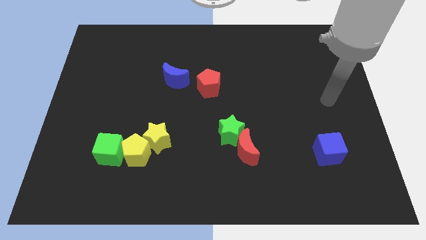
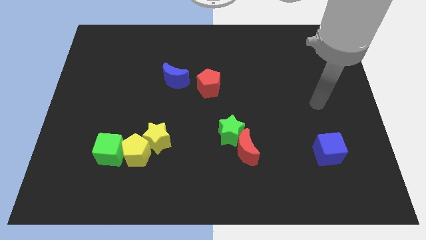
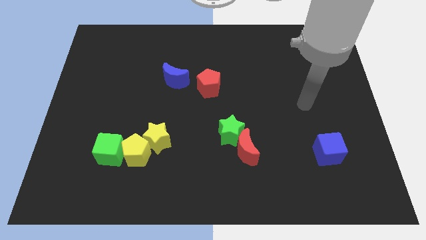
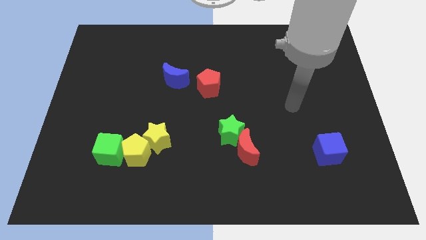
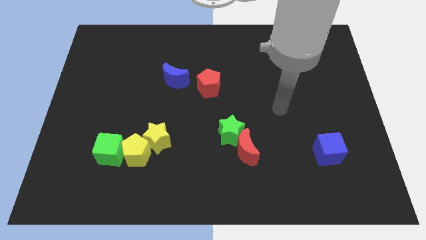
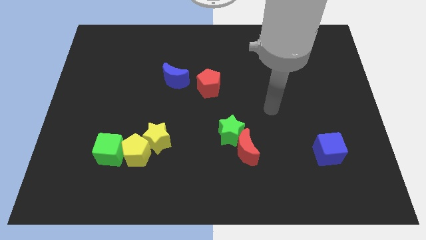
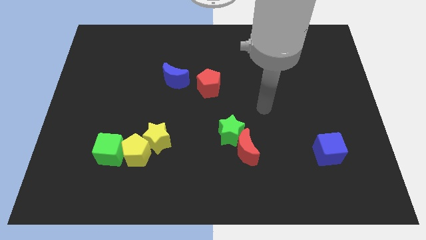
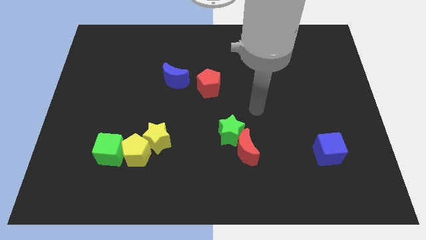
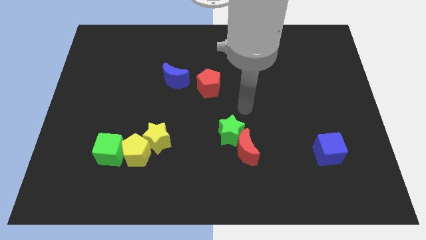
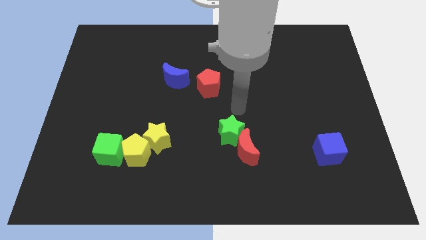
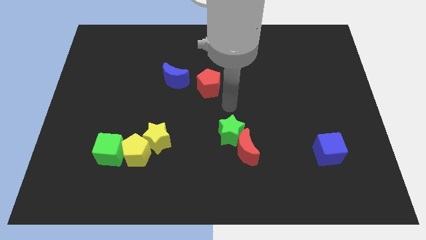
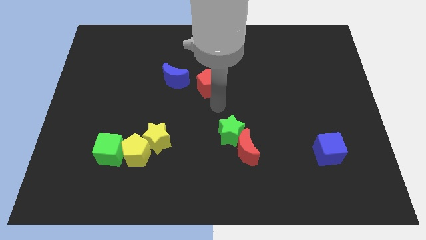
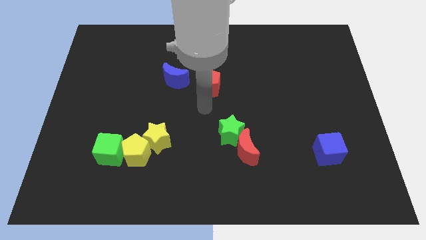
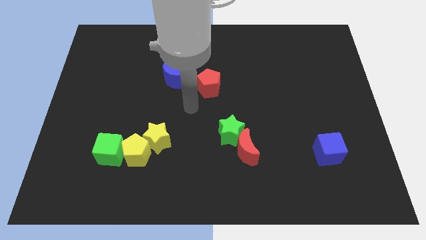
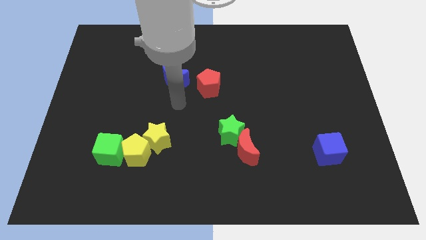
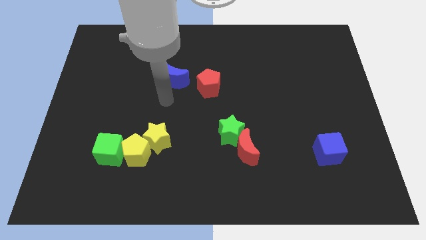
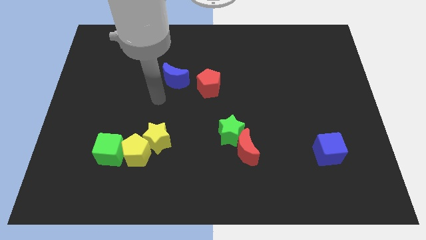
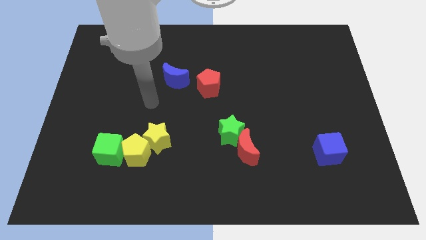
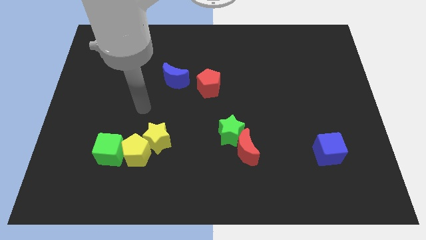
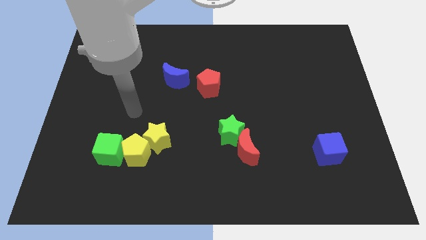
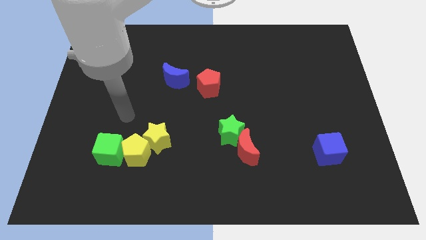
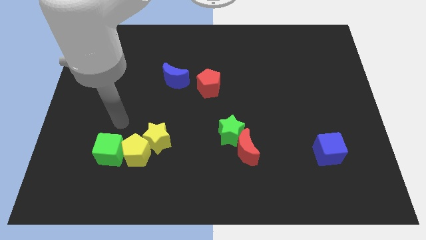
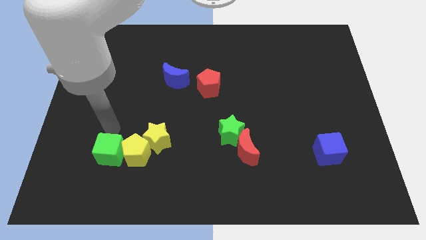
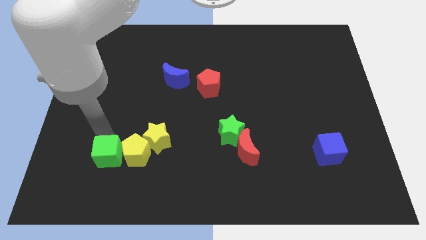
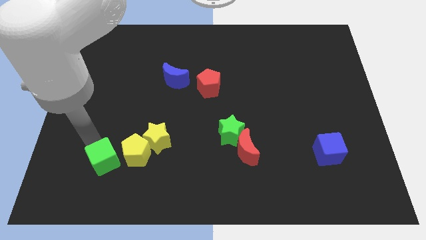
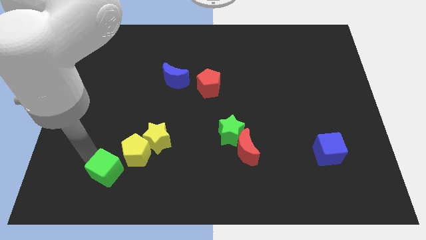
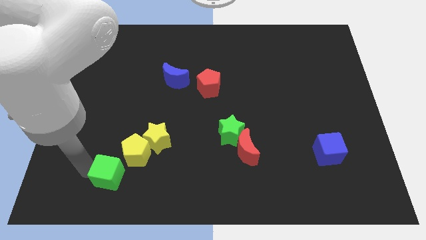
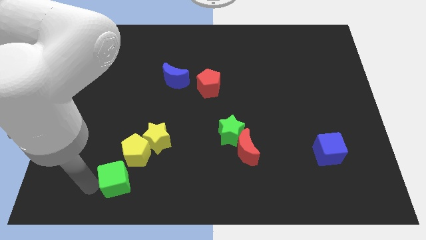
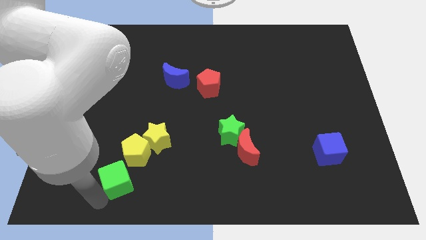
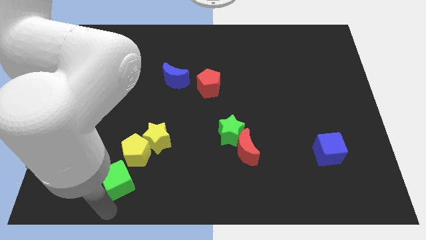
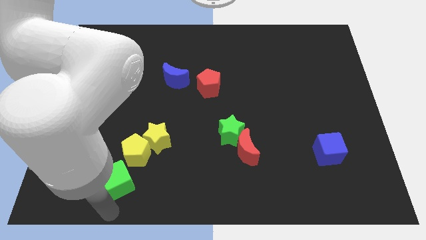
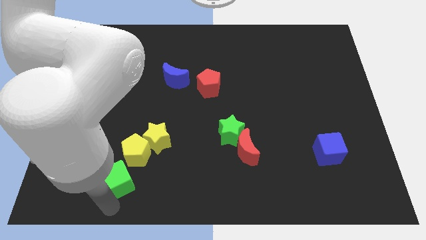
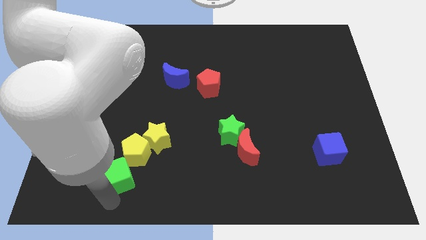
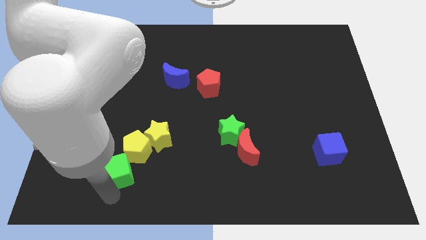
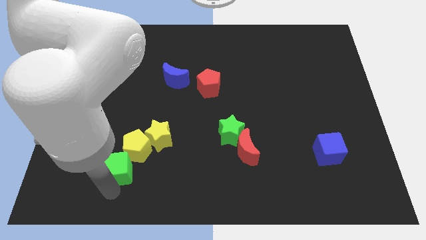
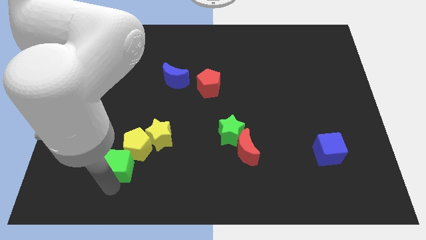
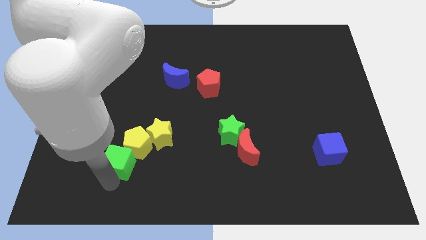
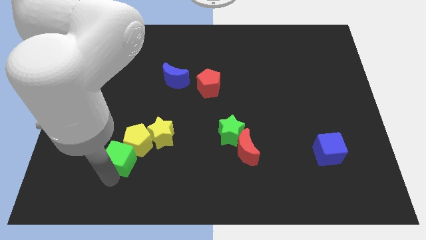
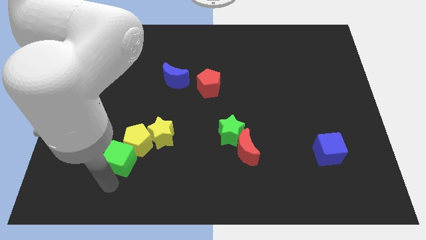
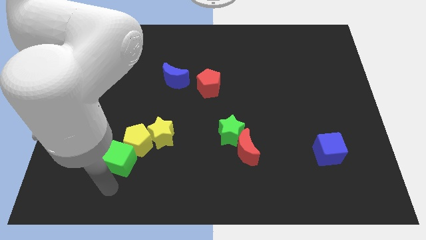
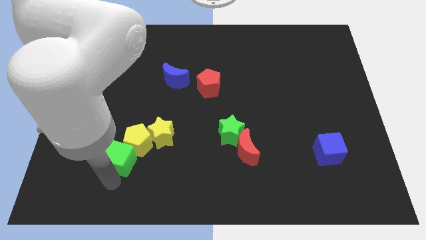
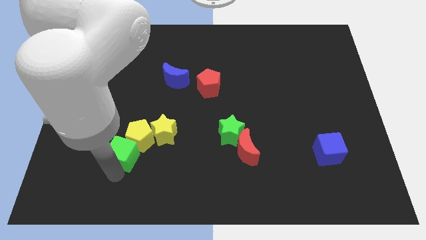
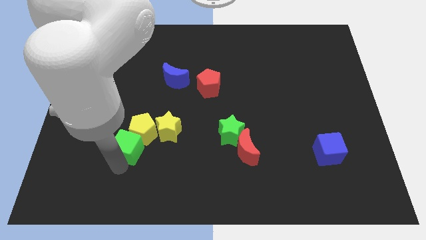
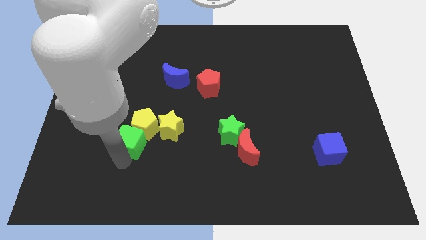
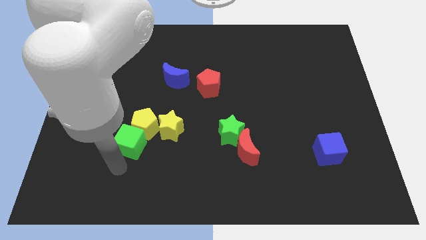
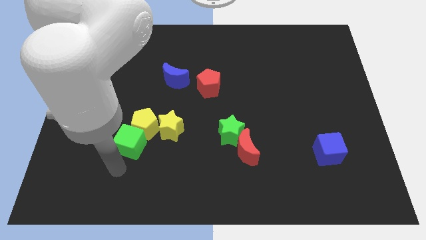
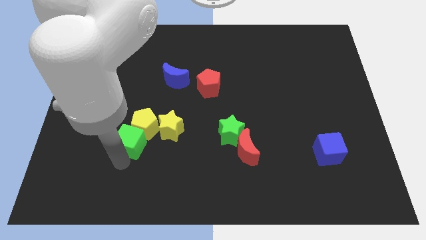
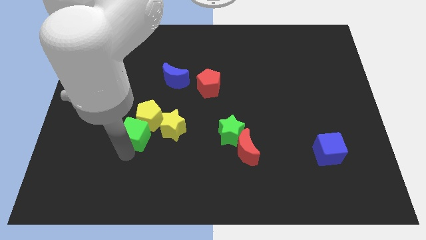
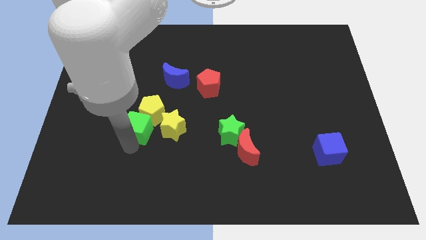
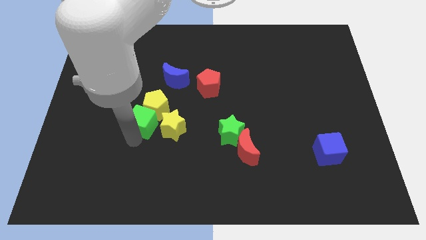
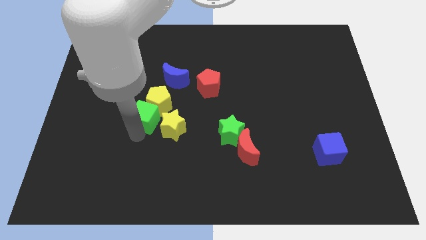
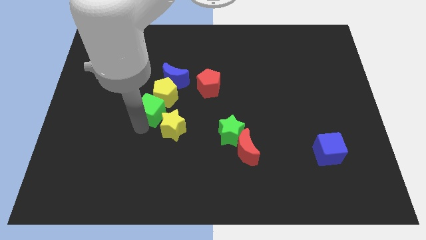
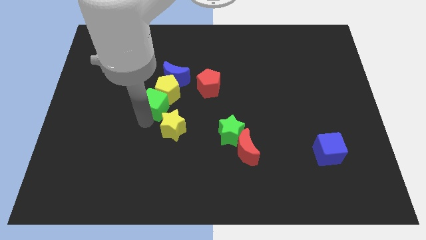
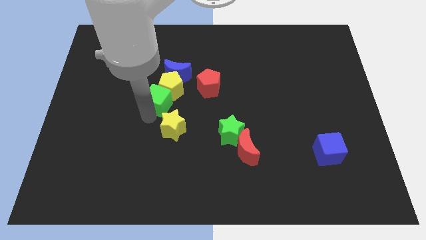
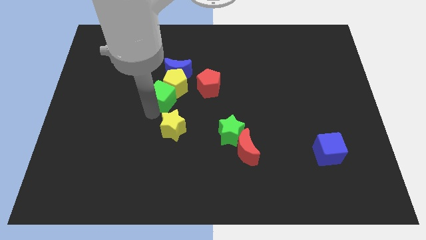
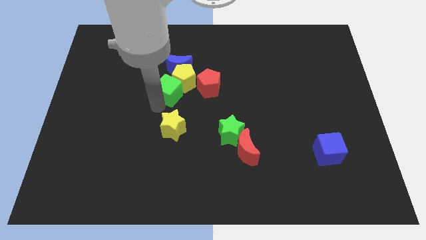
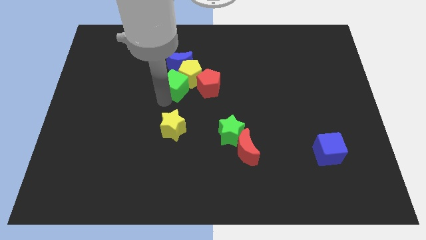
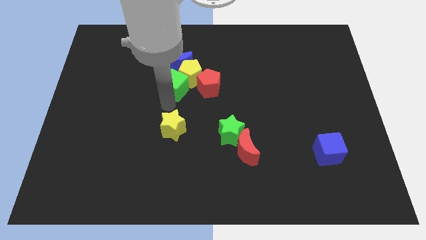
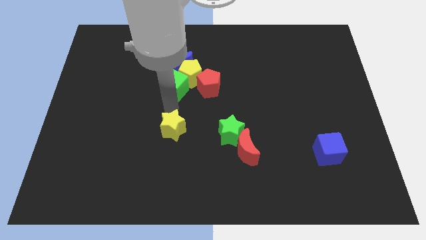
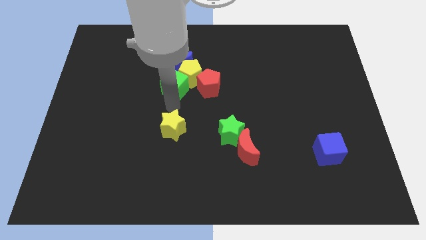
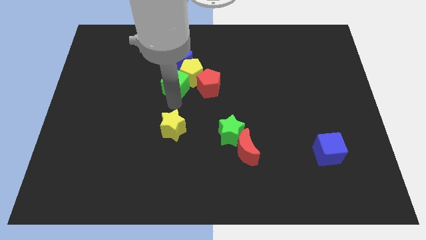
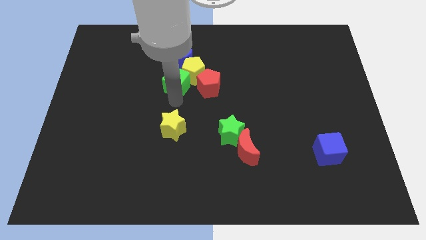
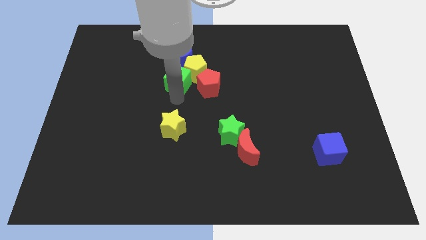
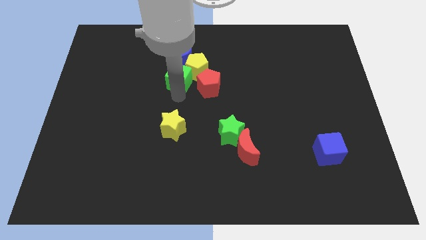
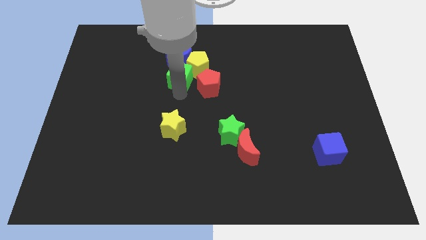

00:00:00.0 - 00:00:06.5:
push the green cube towards the blue moon

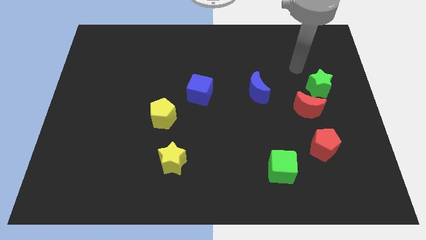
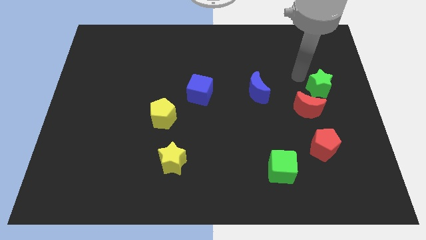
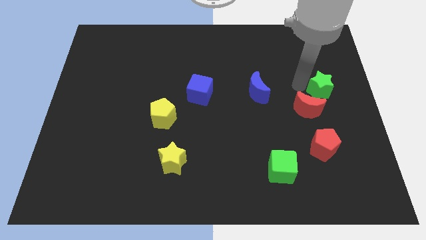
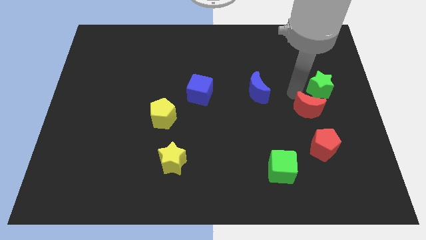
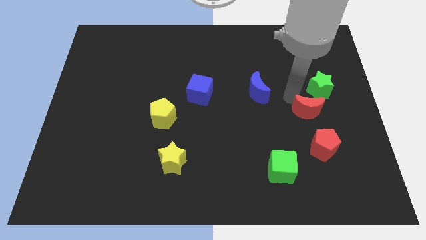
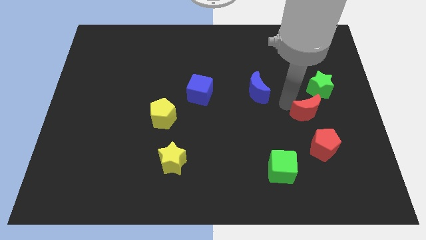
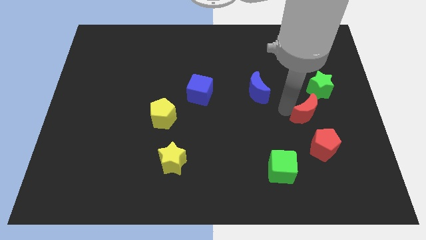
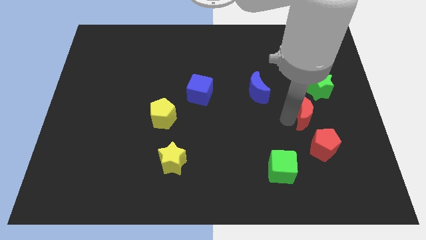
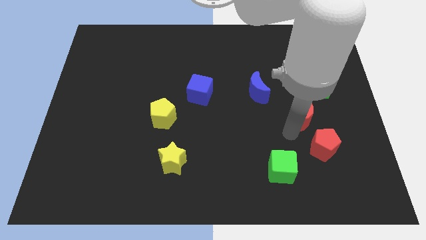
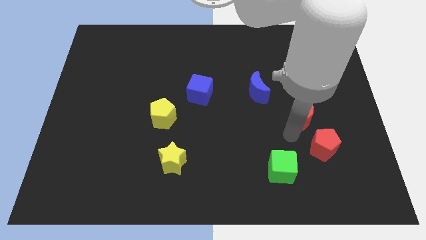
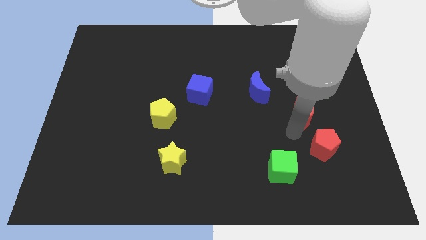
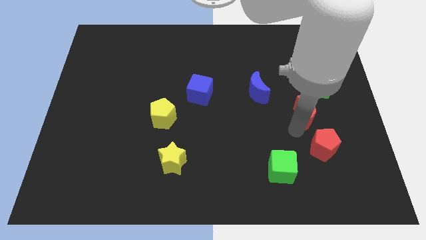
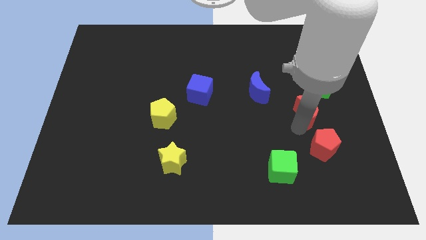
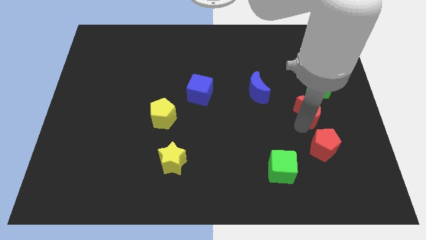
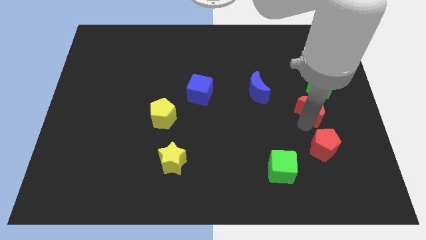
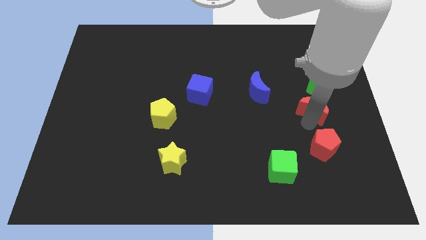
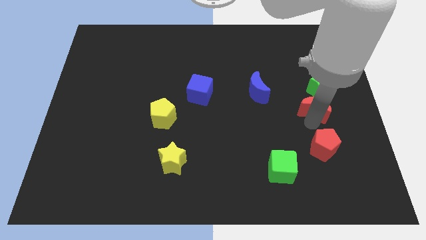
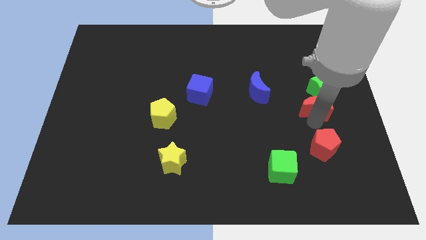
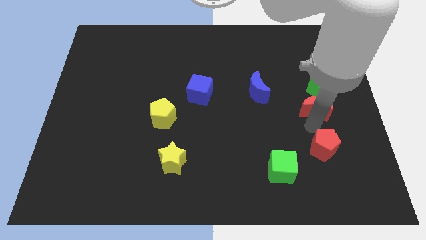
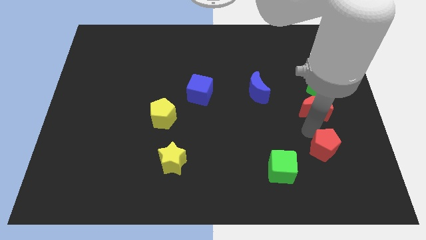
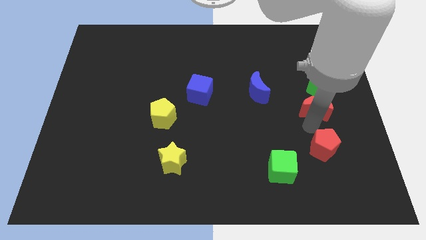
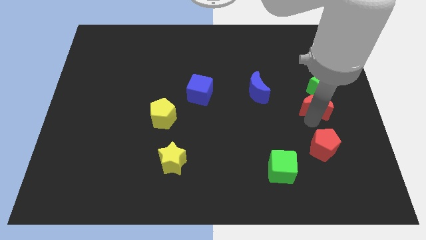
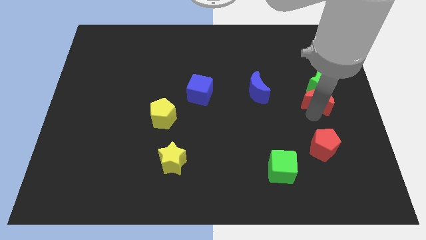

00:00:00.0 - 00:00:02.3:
slide the red moon close to the green star
